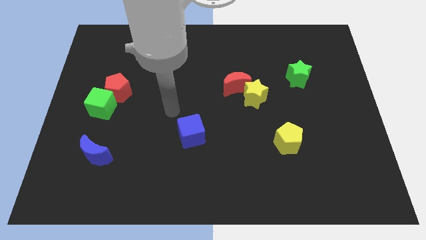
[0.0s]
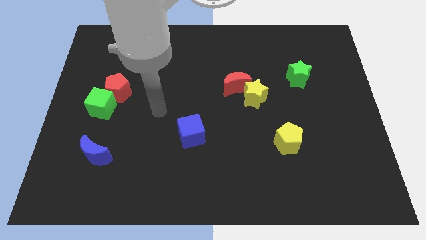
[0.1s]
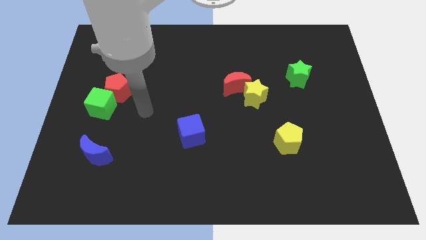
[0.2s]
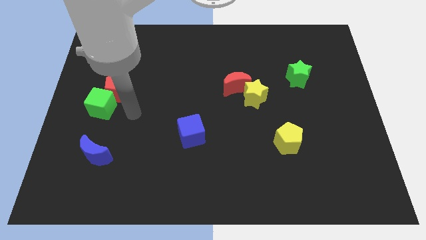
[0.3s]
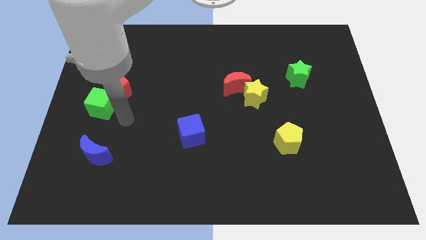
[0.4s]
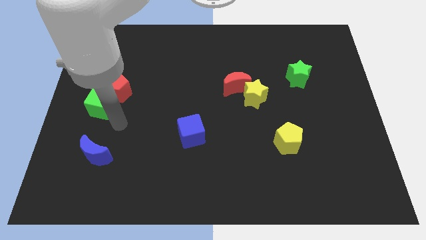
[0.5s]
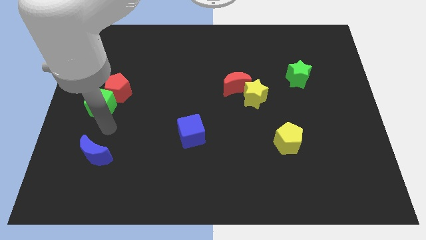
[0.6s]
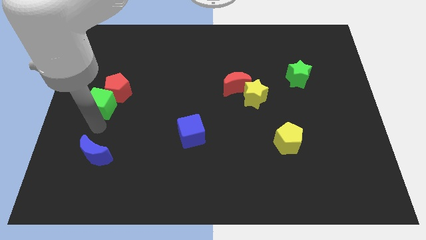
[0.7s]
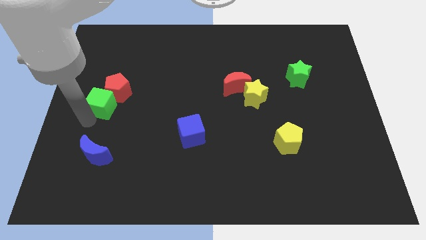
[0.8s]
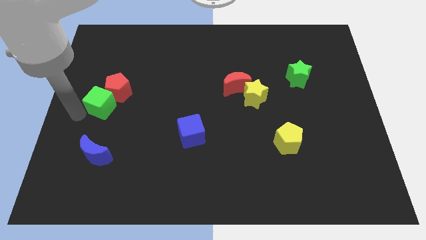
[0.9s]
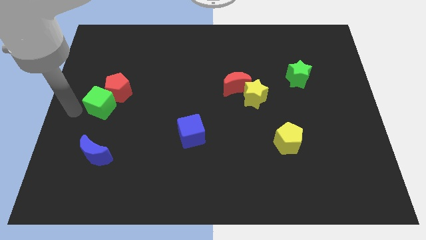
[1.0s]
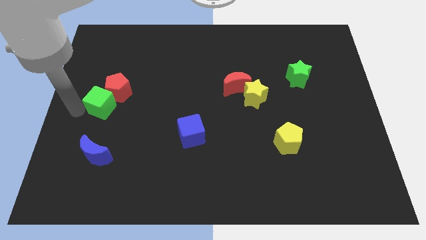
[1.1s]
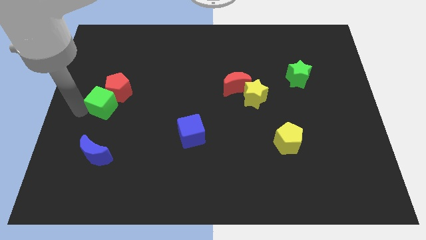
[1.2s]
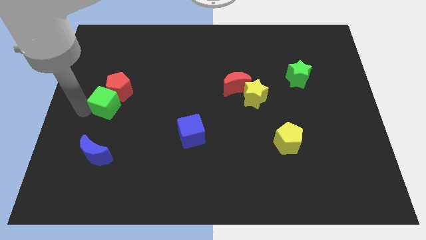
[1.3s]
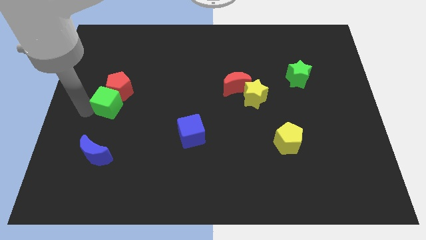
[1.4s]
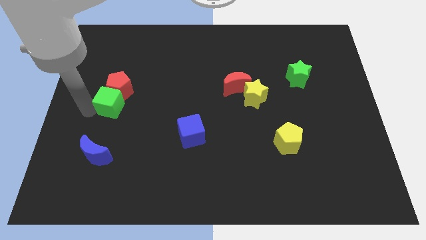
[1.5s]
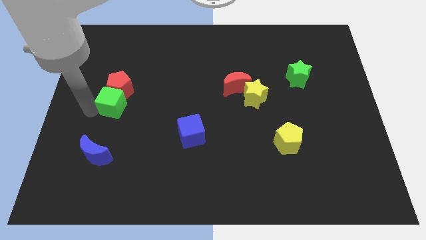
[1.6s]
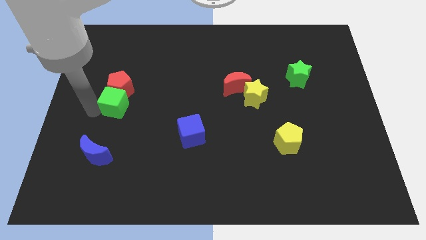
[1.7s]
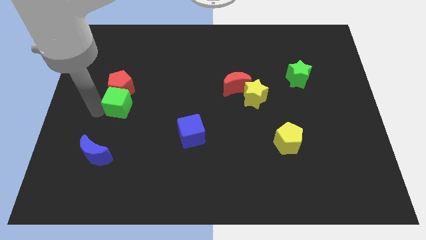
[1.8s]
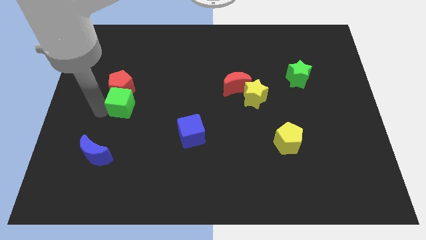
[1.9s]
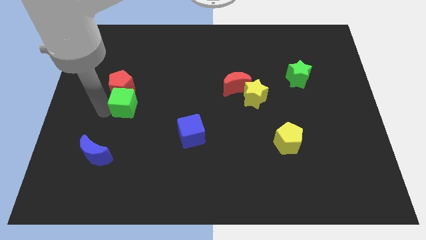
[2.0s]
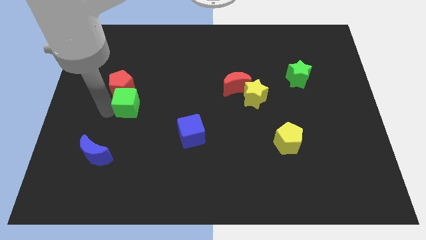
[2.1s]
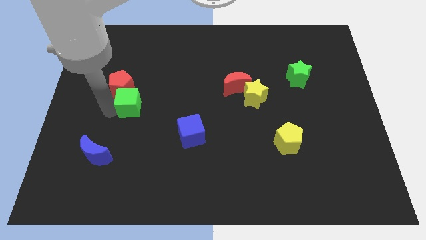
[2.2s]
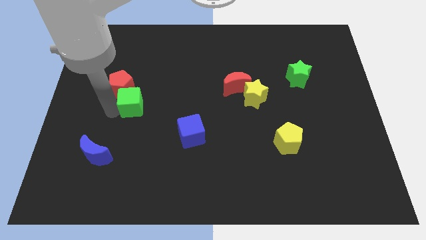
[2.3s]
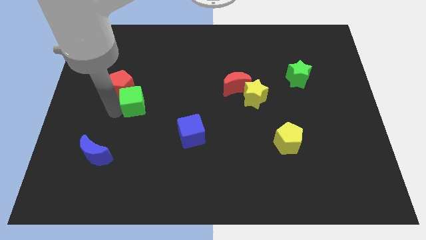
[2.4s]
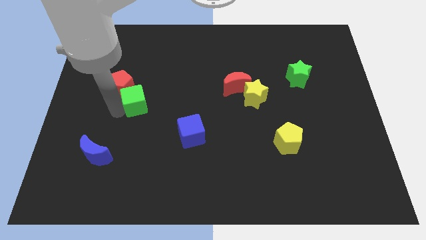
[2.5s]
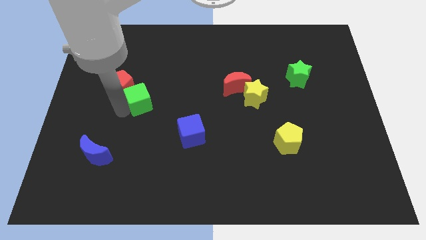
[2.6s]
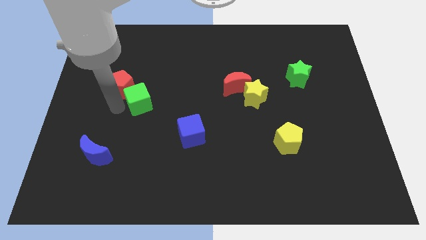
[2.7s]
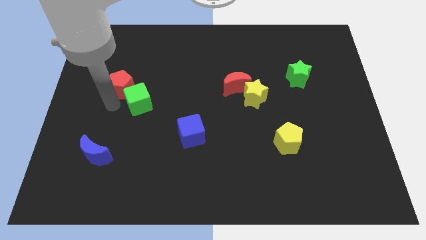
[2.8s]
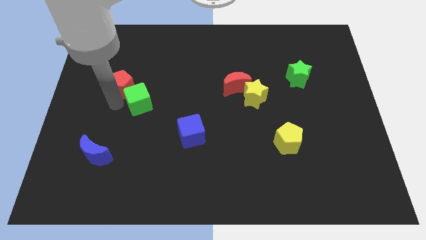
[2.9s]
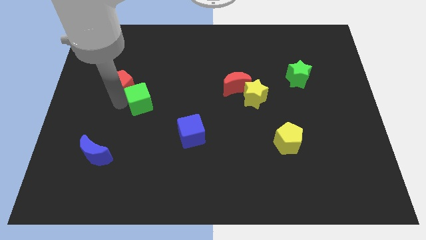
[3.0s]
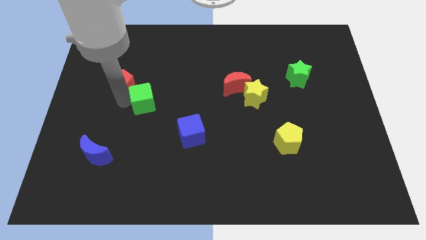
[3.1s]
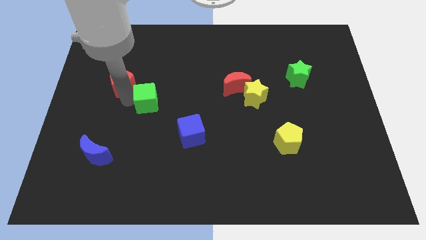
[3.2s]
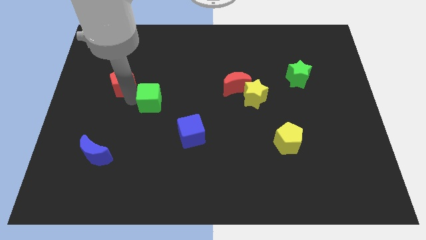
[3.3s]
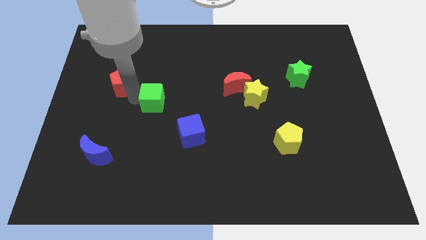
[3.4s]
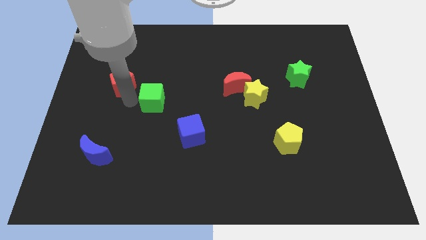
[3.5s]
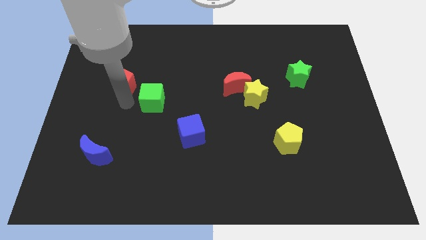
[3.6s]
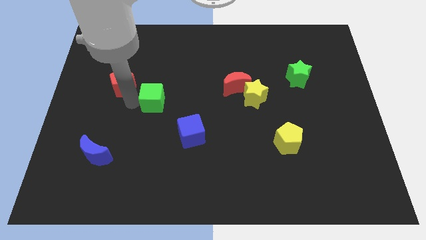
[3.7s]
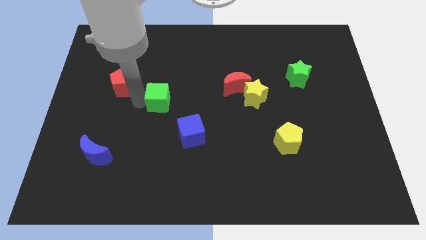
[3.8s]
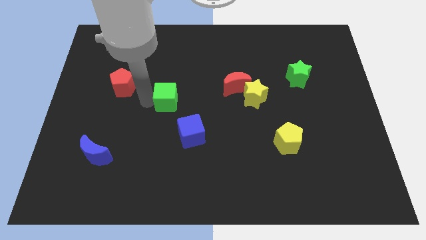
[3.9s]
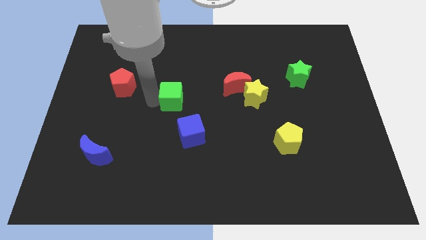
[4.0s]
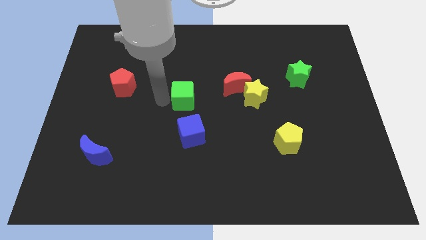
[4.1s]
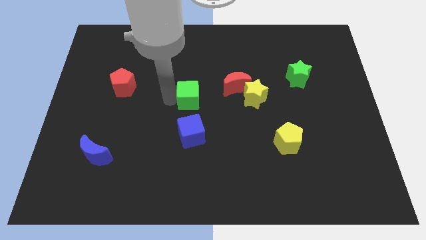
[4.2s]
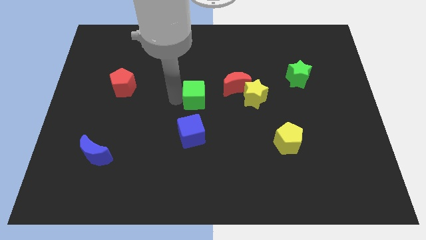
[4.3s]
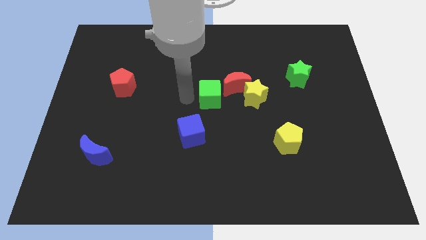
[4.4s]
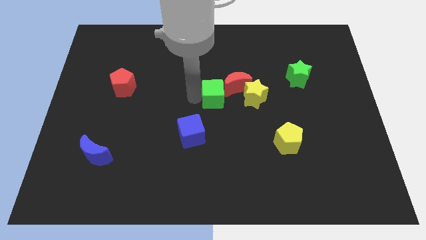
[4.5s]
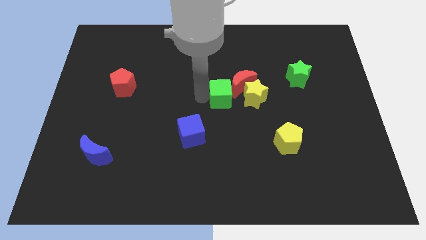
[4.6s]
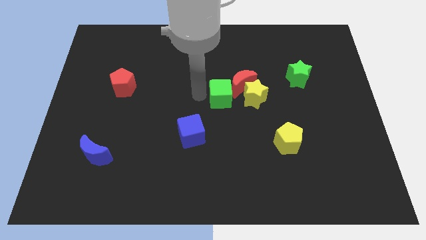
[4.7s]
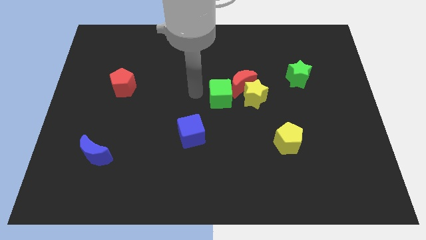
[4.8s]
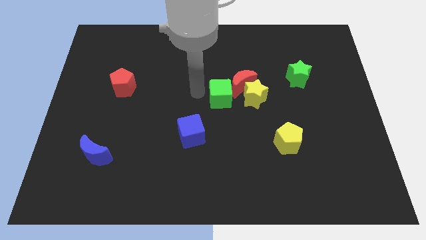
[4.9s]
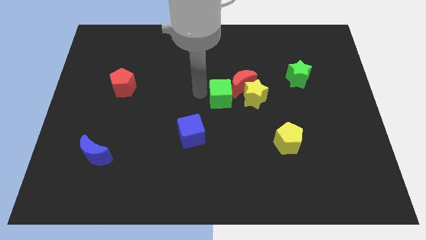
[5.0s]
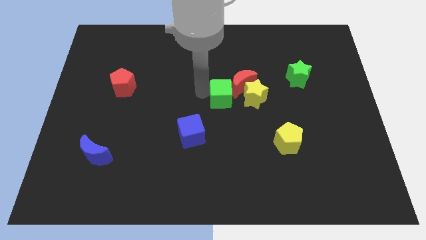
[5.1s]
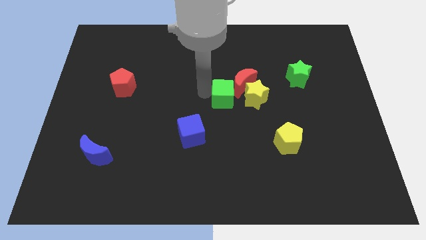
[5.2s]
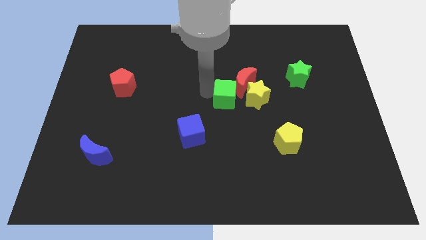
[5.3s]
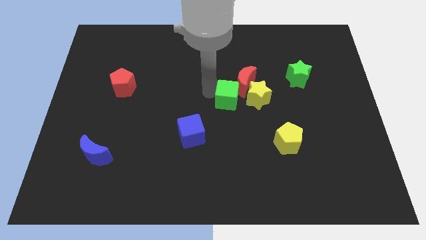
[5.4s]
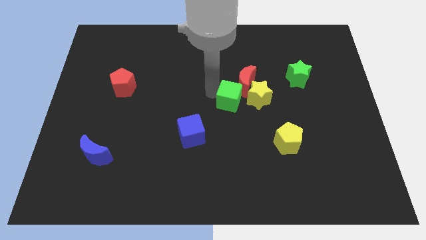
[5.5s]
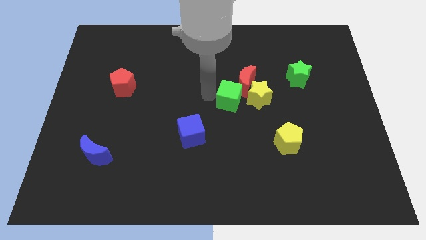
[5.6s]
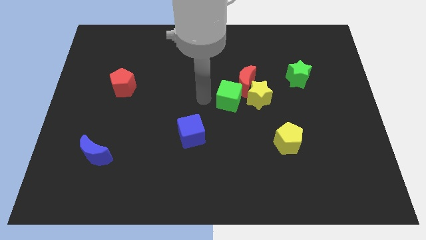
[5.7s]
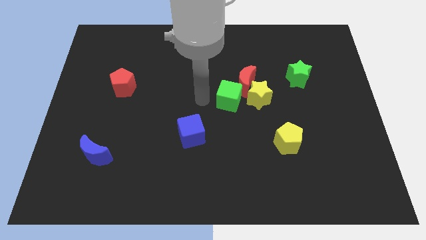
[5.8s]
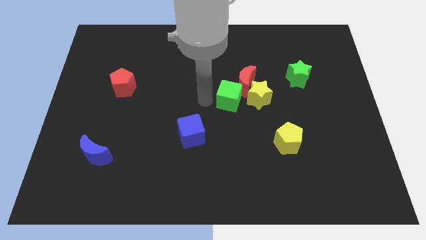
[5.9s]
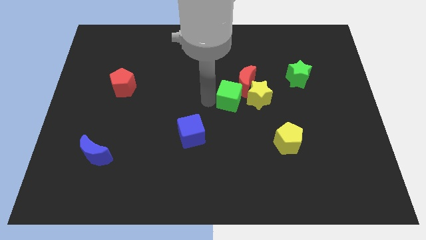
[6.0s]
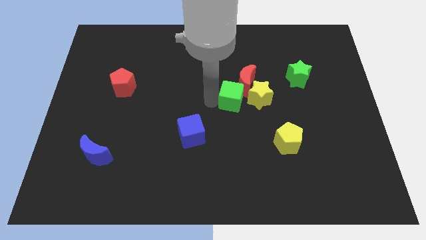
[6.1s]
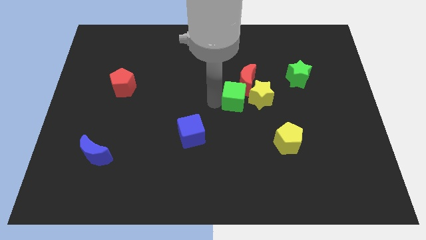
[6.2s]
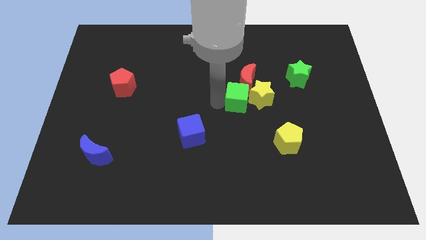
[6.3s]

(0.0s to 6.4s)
move the green cube close to the yellow star

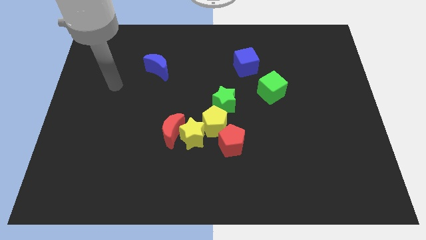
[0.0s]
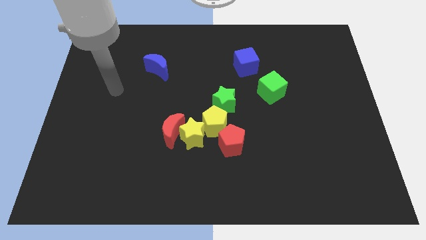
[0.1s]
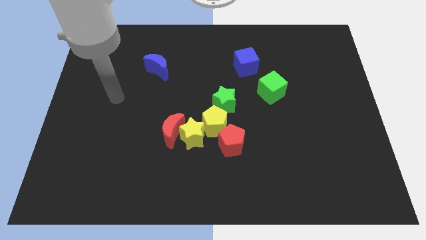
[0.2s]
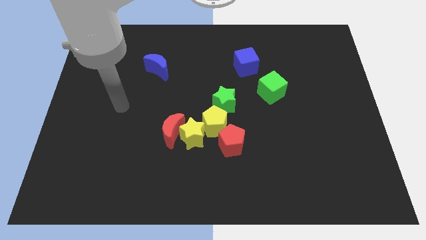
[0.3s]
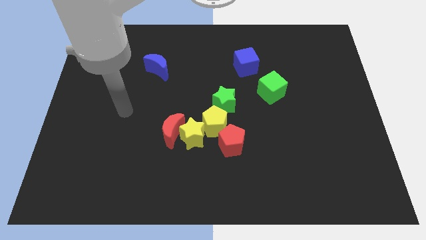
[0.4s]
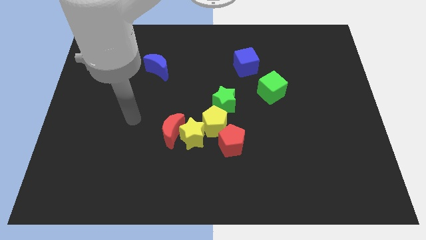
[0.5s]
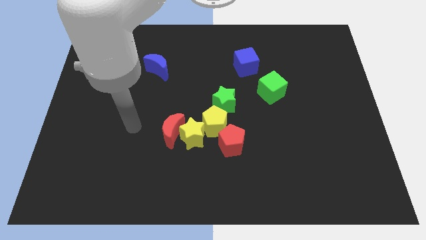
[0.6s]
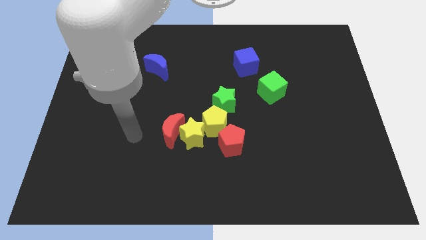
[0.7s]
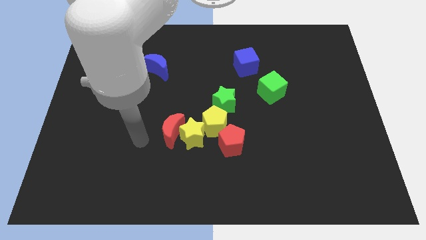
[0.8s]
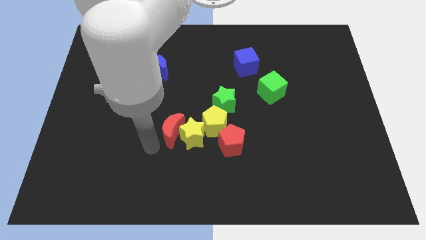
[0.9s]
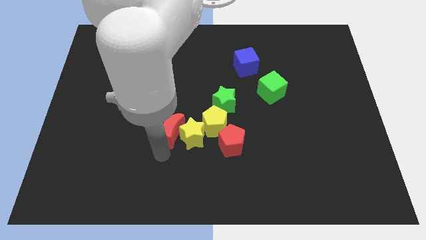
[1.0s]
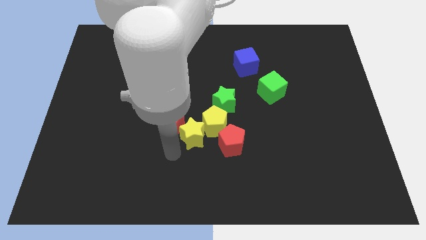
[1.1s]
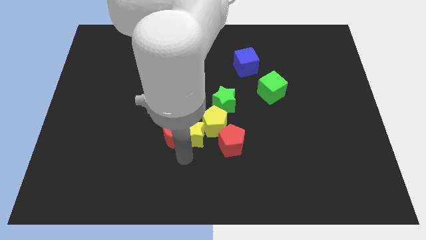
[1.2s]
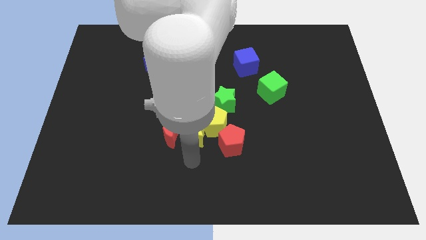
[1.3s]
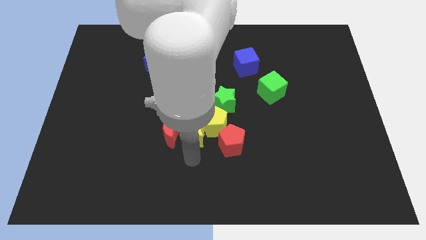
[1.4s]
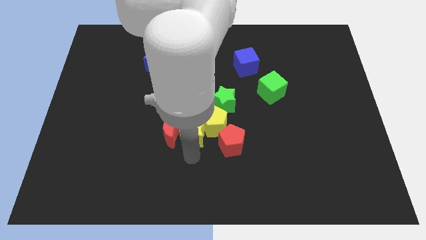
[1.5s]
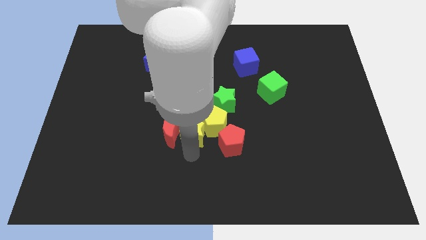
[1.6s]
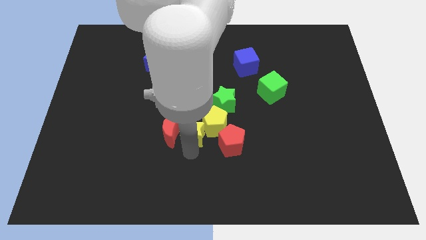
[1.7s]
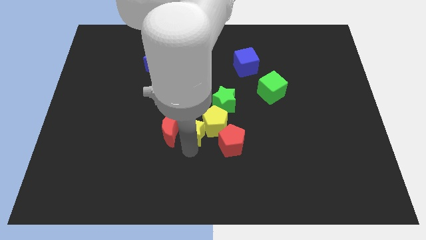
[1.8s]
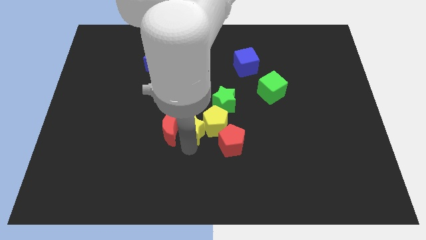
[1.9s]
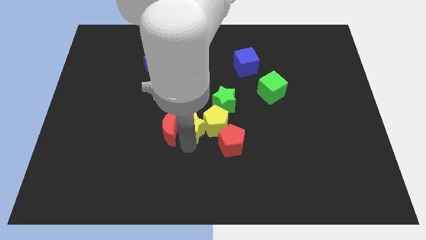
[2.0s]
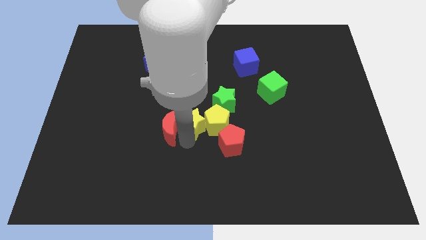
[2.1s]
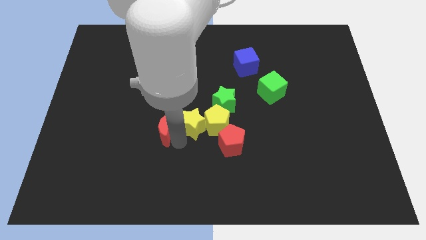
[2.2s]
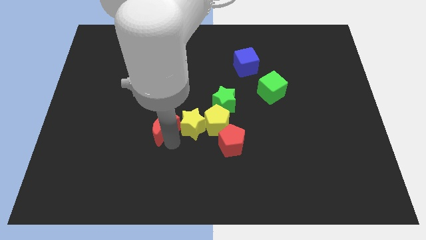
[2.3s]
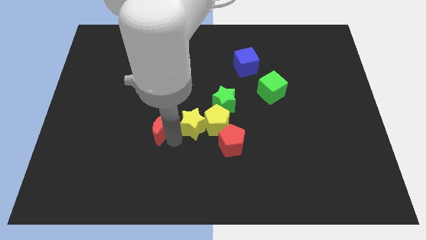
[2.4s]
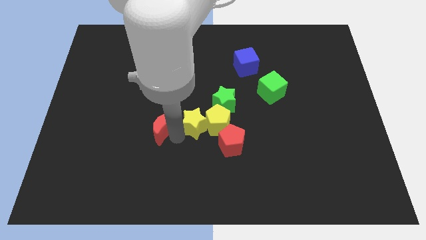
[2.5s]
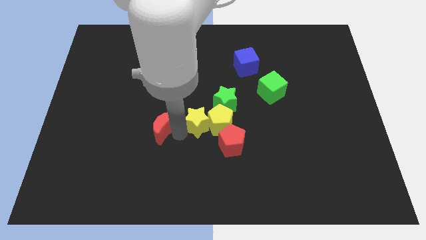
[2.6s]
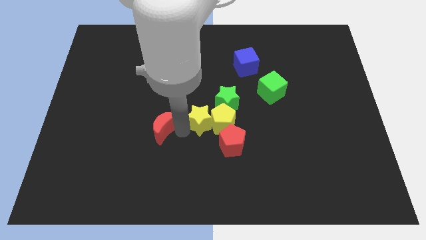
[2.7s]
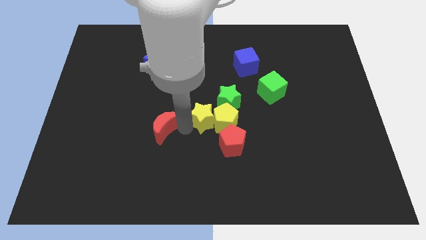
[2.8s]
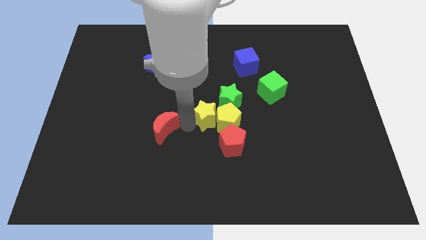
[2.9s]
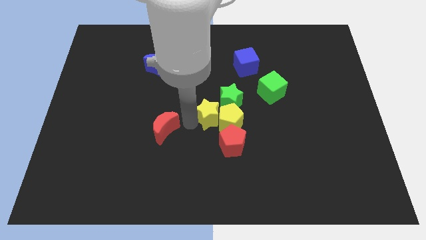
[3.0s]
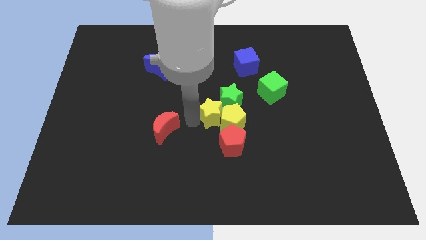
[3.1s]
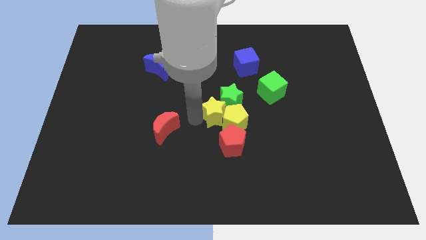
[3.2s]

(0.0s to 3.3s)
put the yellow star to the green star
